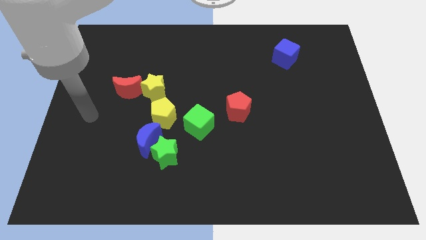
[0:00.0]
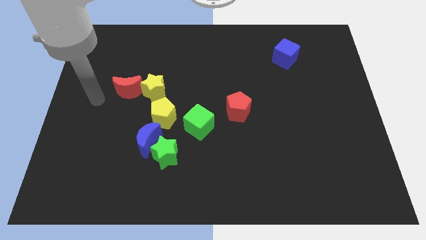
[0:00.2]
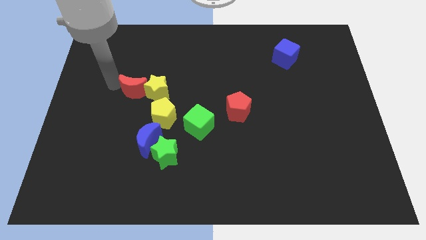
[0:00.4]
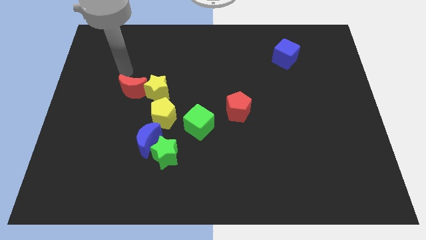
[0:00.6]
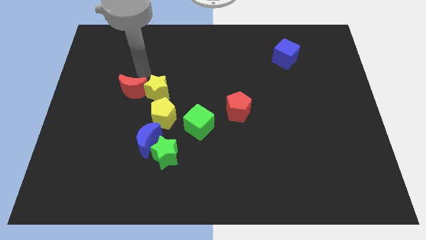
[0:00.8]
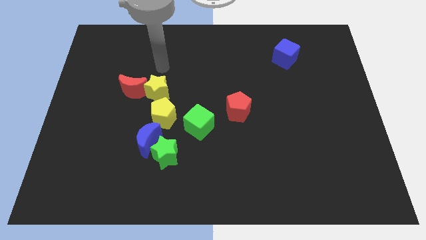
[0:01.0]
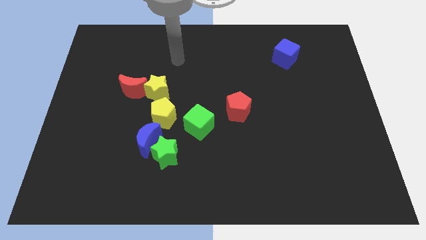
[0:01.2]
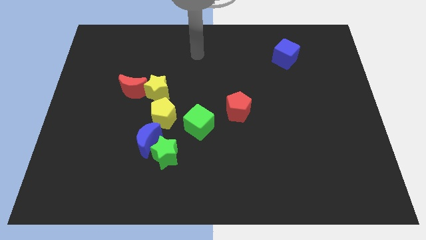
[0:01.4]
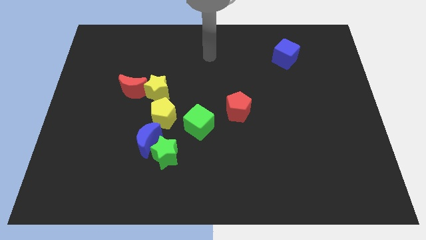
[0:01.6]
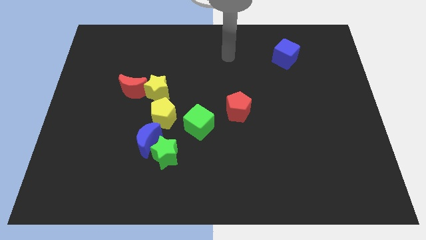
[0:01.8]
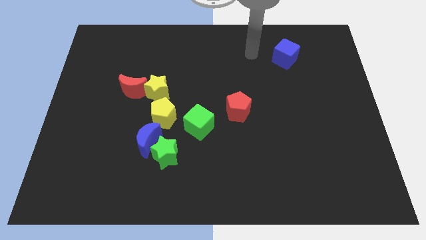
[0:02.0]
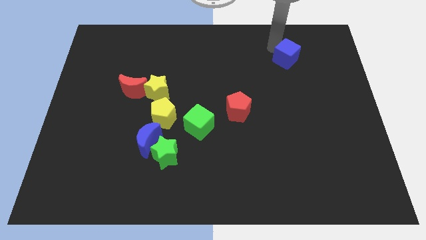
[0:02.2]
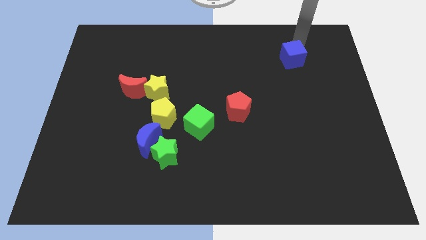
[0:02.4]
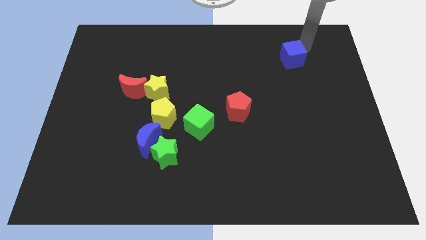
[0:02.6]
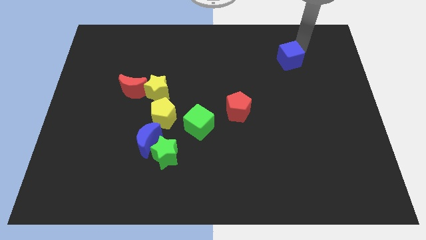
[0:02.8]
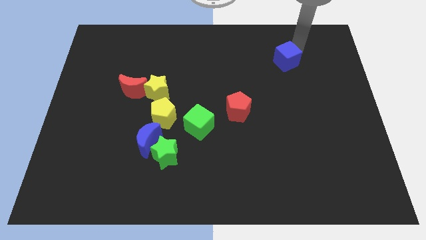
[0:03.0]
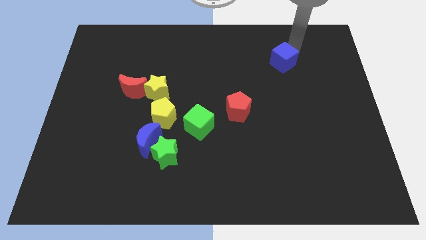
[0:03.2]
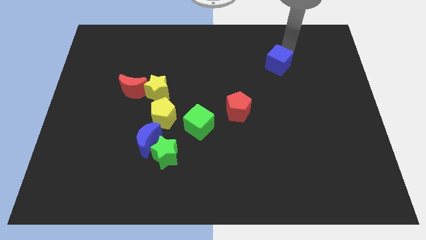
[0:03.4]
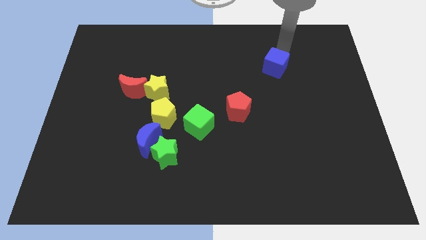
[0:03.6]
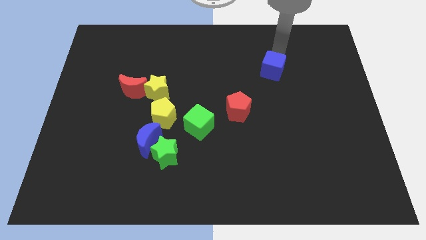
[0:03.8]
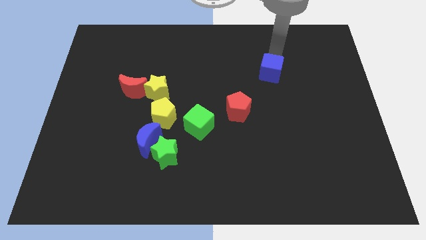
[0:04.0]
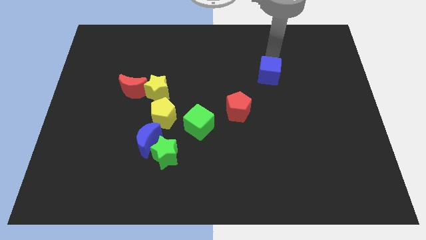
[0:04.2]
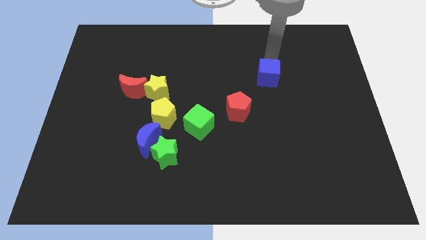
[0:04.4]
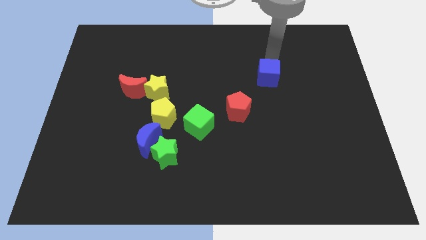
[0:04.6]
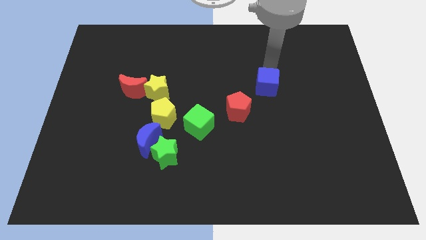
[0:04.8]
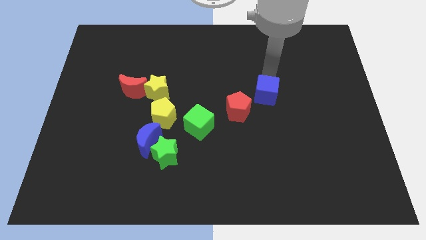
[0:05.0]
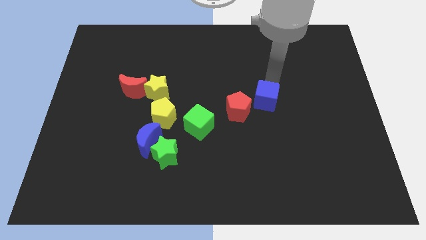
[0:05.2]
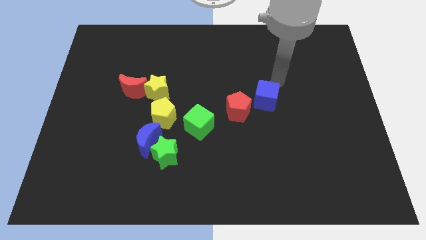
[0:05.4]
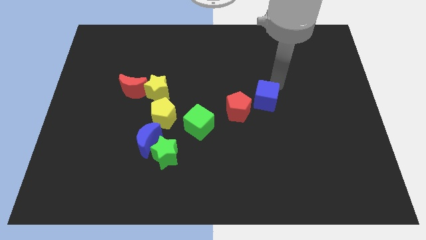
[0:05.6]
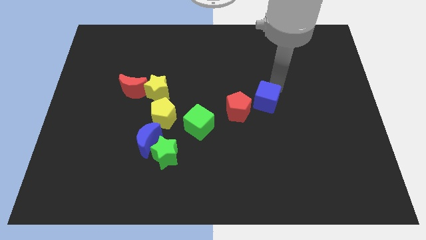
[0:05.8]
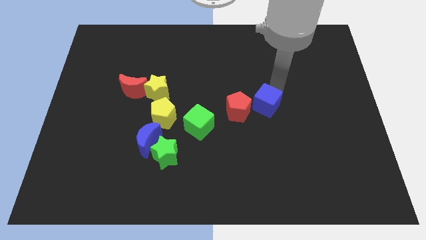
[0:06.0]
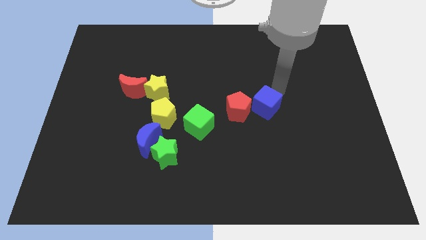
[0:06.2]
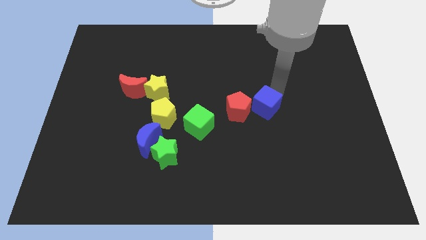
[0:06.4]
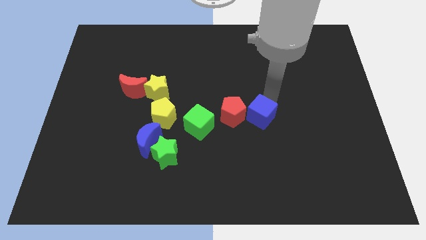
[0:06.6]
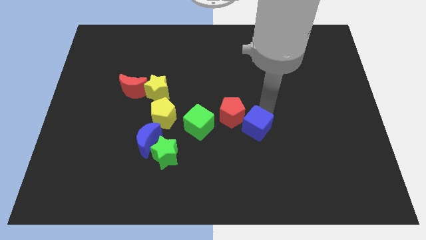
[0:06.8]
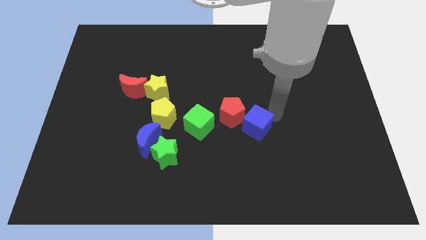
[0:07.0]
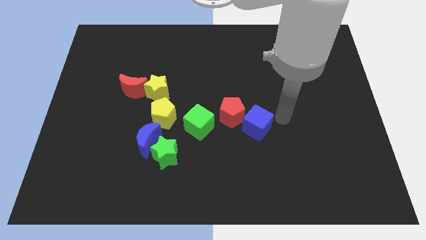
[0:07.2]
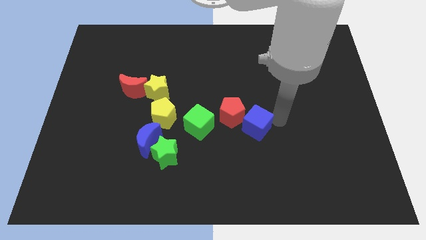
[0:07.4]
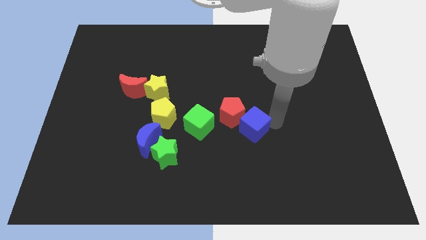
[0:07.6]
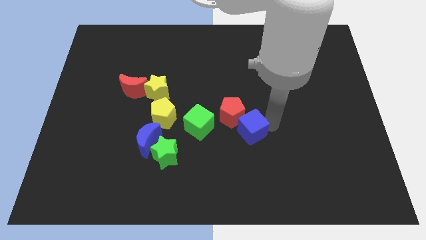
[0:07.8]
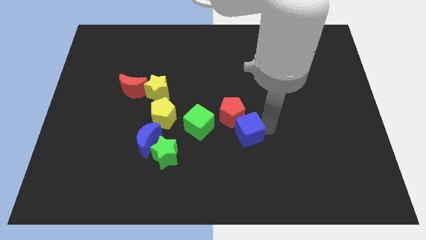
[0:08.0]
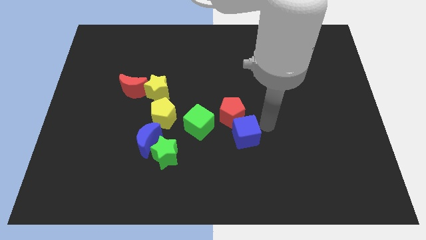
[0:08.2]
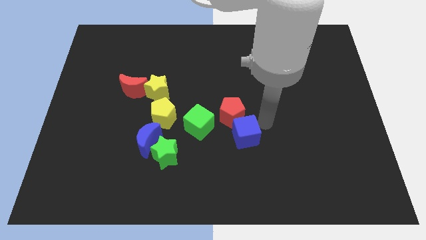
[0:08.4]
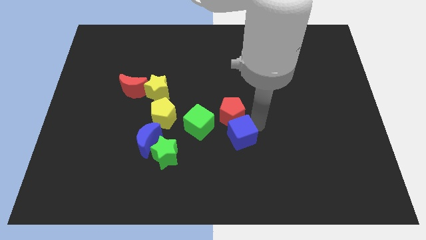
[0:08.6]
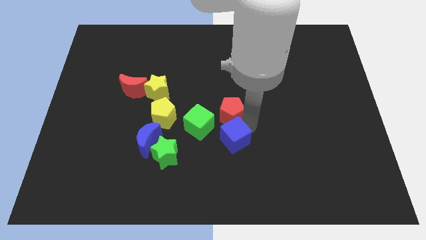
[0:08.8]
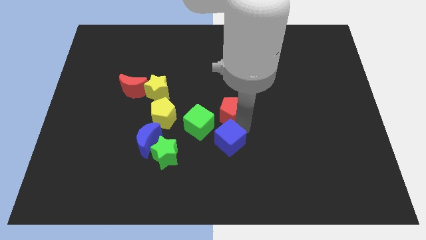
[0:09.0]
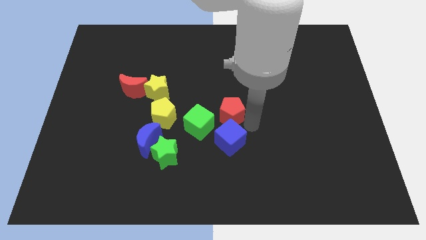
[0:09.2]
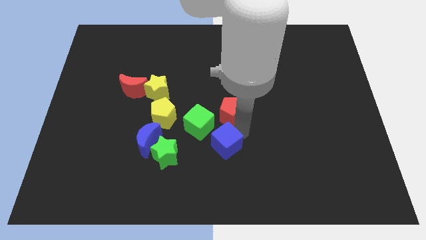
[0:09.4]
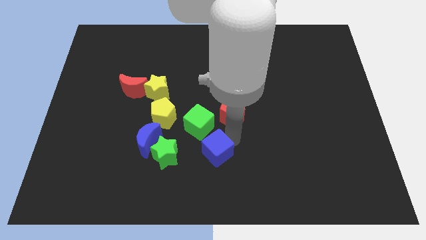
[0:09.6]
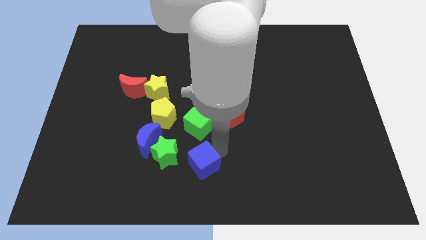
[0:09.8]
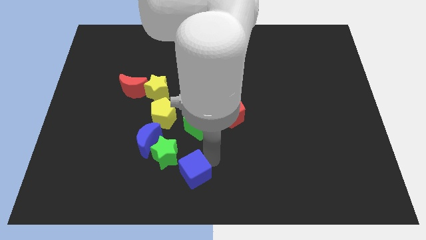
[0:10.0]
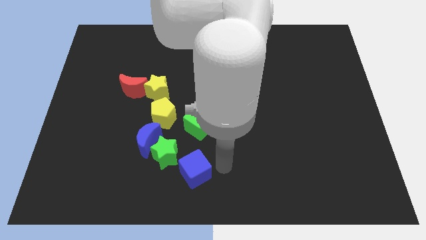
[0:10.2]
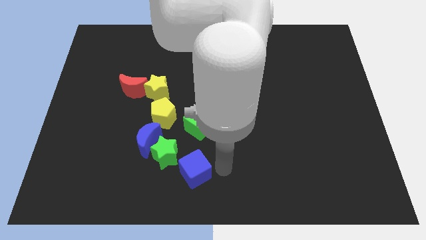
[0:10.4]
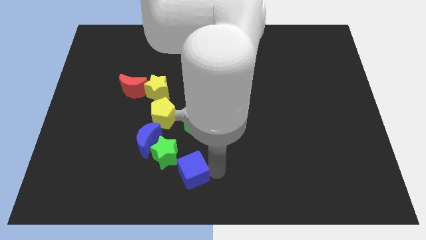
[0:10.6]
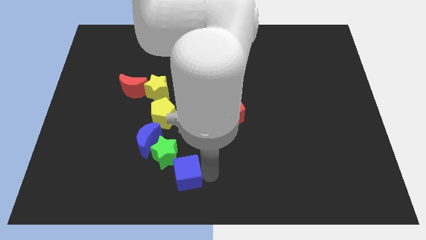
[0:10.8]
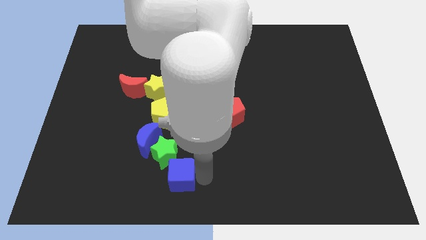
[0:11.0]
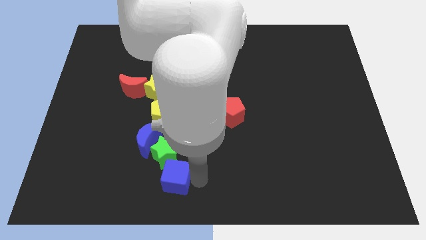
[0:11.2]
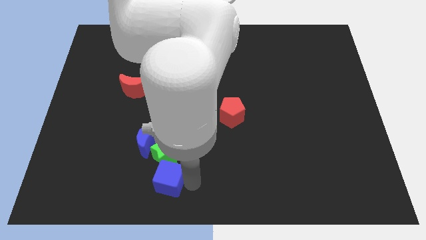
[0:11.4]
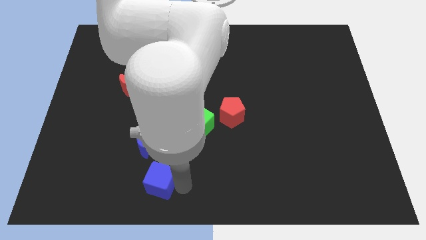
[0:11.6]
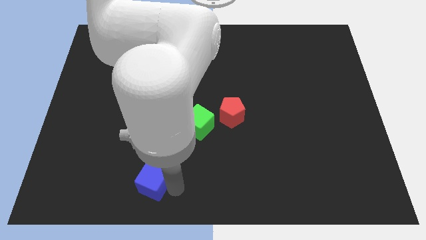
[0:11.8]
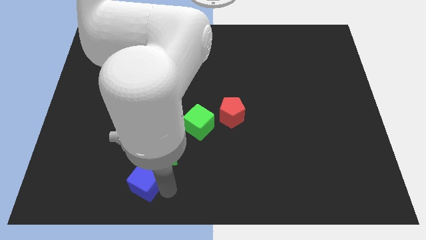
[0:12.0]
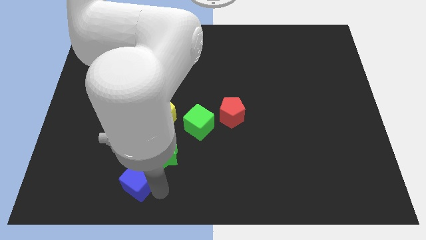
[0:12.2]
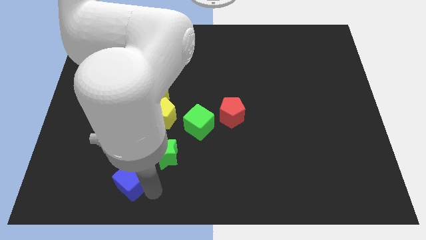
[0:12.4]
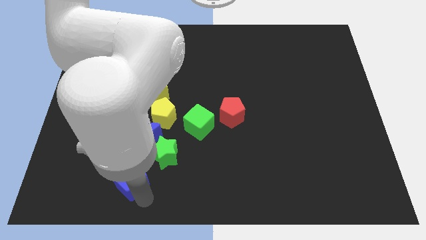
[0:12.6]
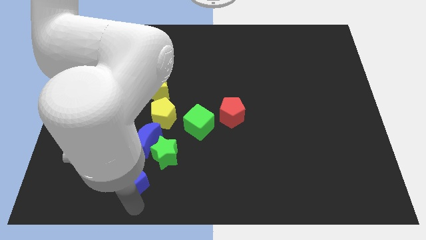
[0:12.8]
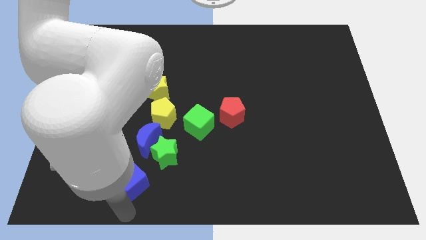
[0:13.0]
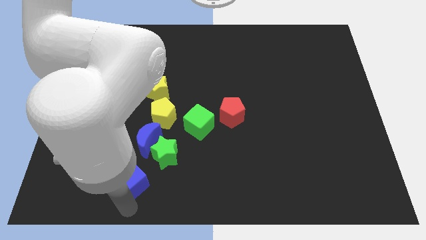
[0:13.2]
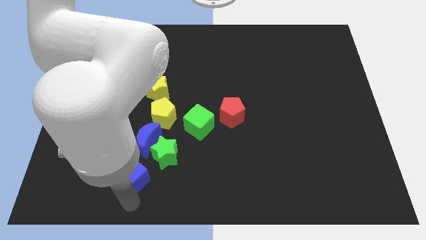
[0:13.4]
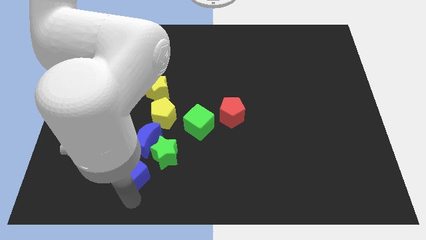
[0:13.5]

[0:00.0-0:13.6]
slide the blue cube just left of the green star
